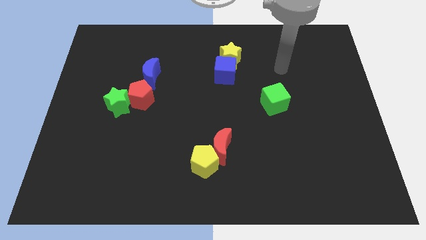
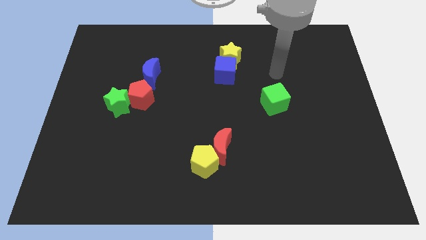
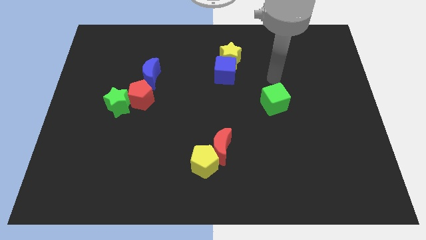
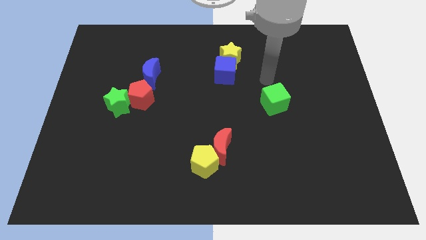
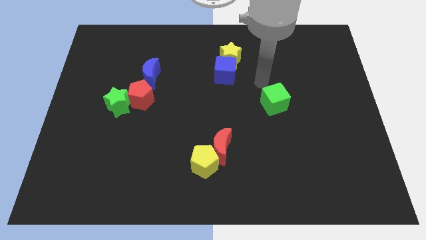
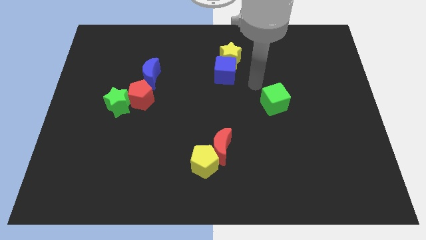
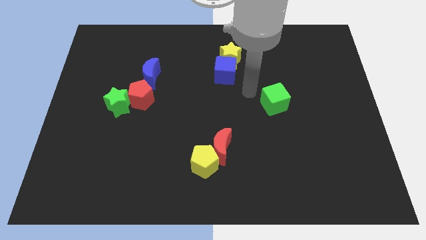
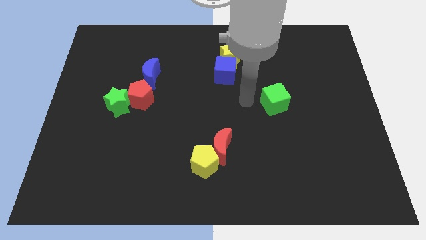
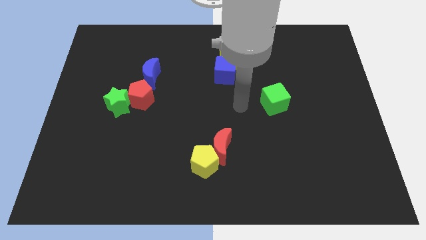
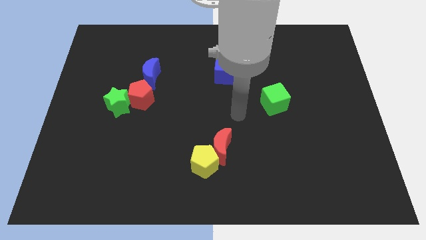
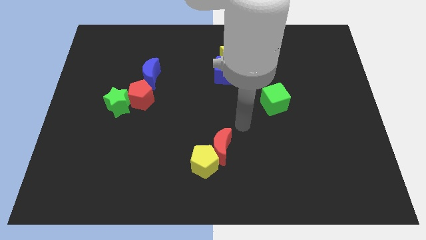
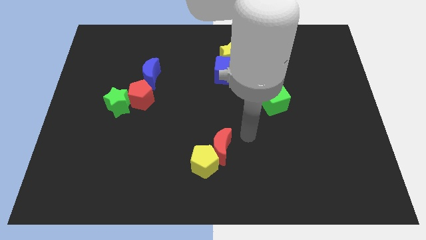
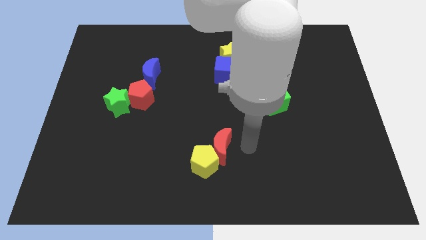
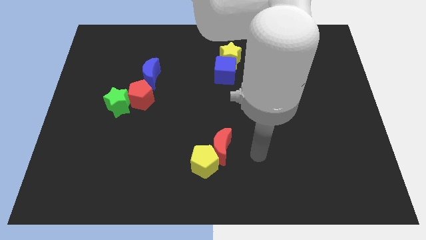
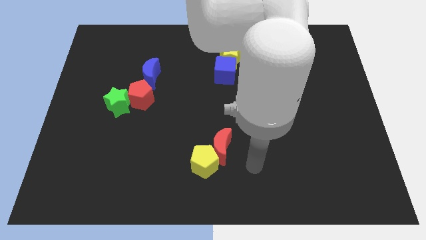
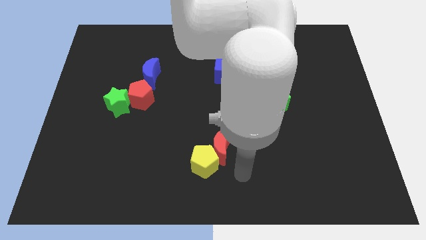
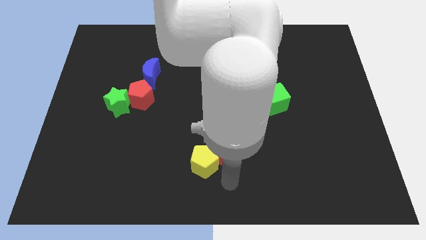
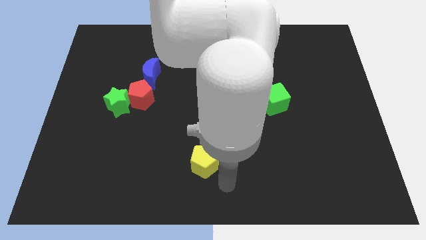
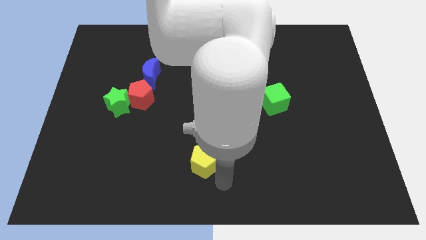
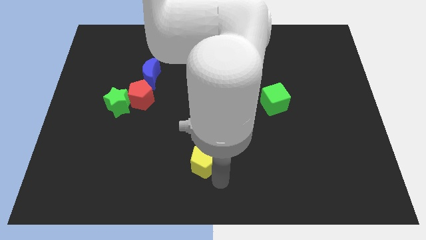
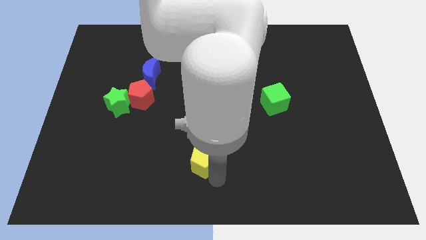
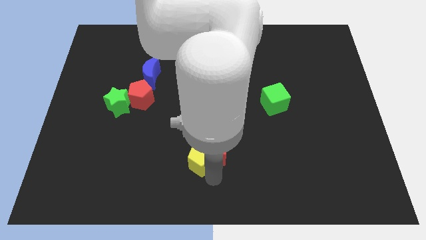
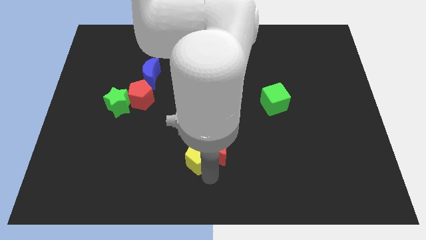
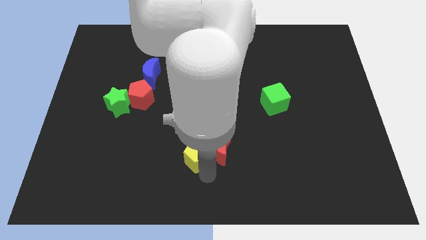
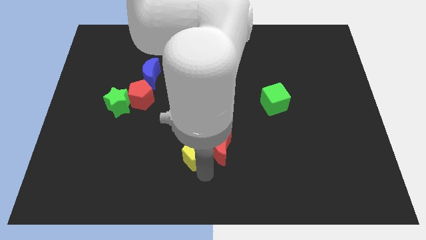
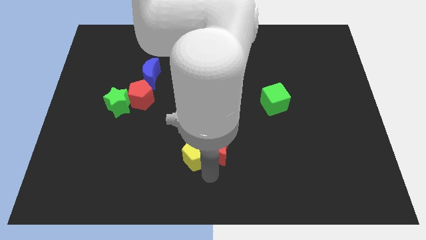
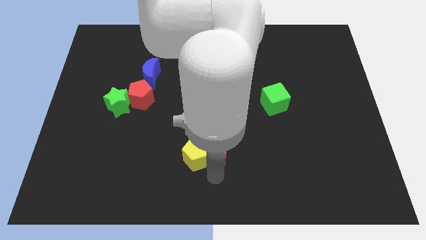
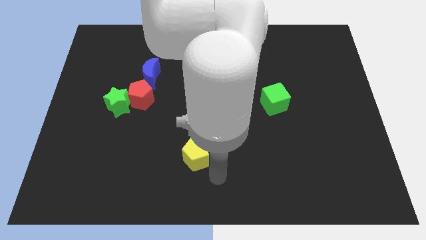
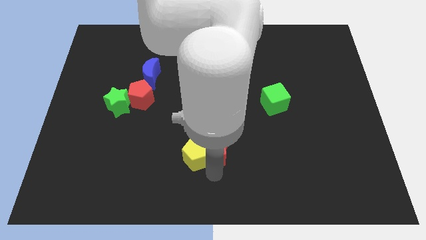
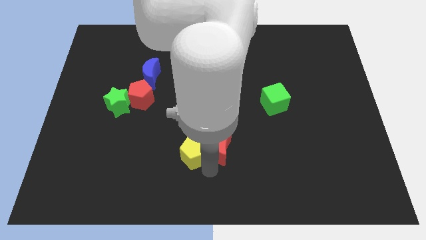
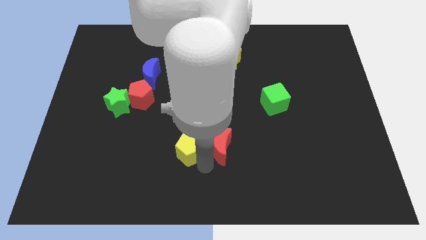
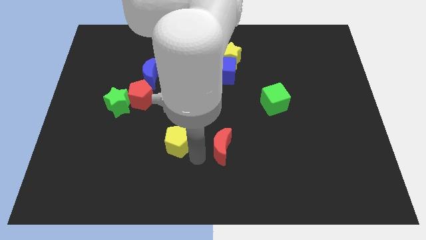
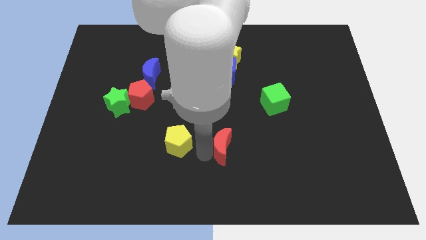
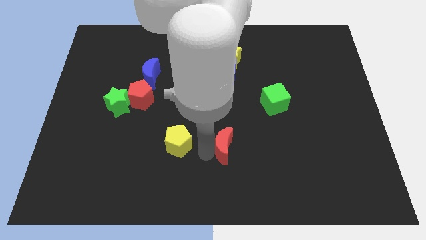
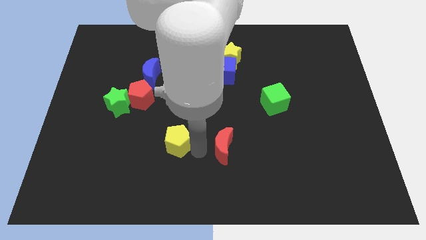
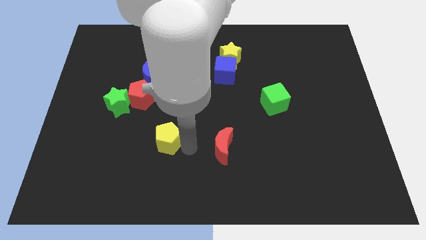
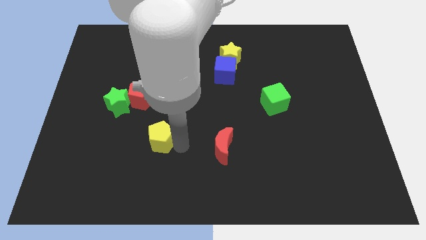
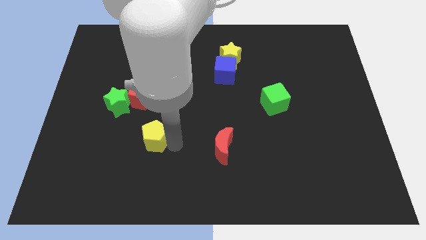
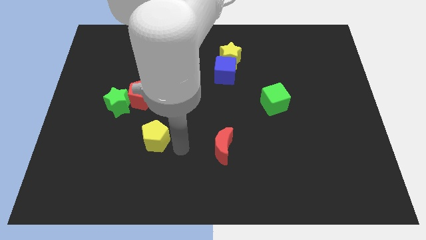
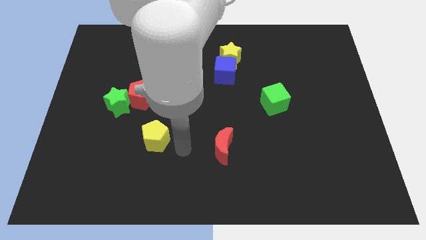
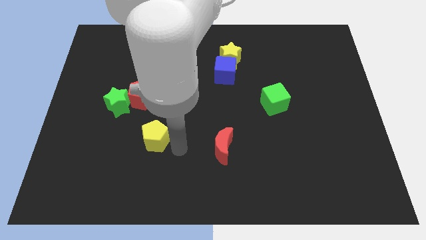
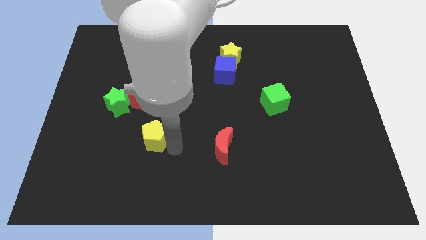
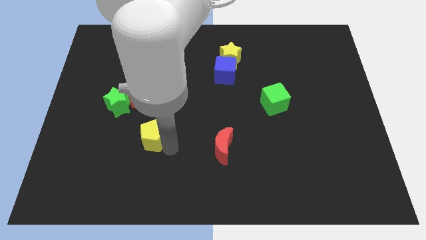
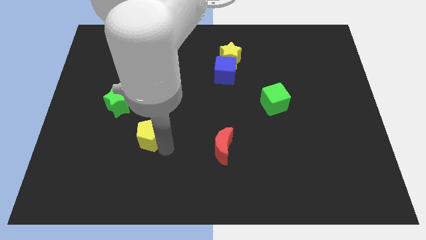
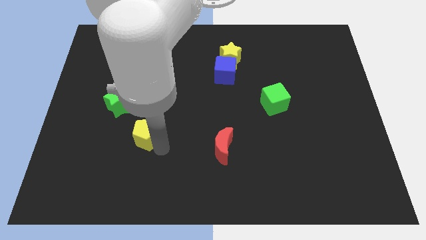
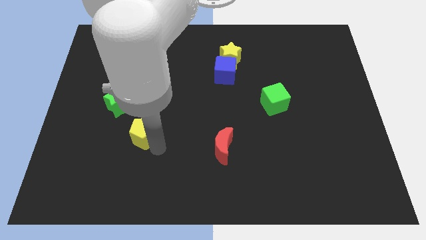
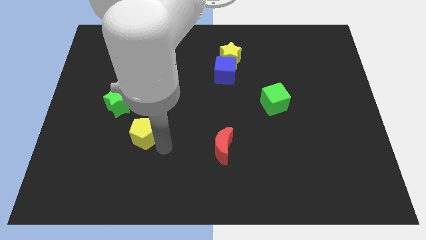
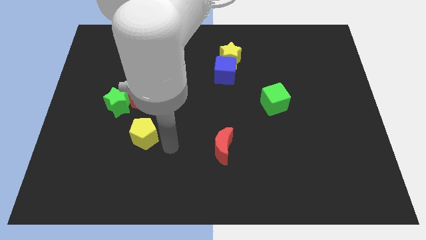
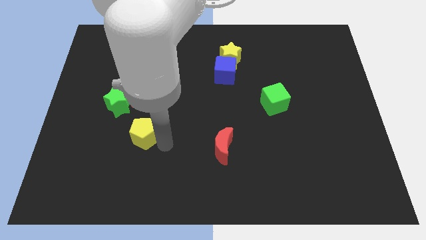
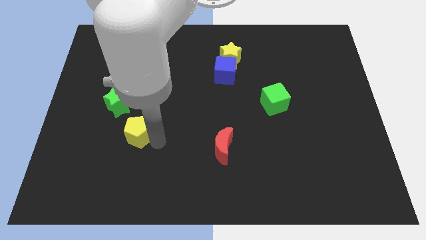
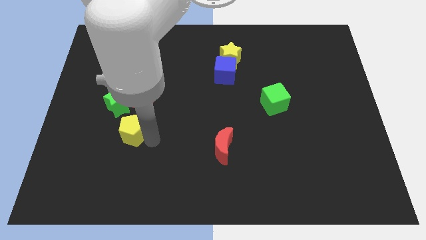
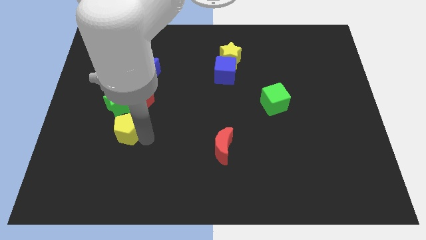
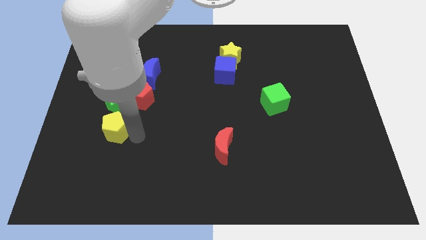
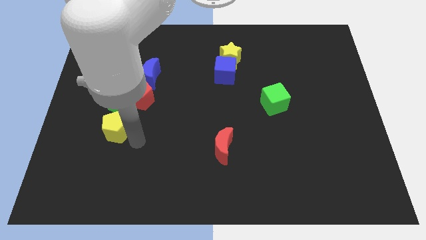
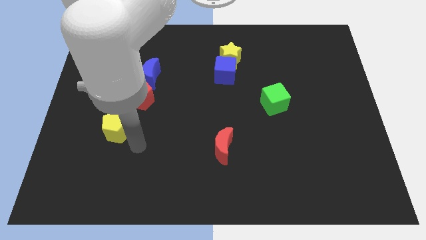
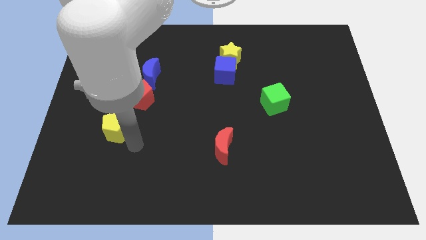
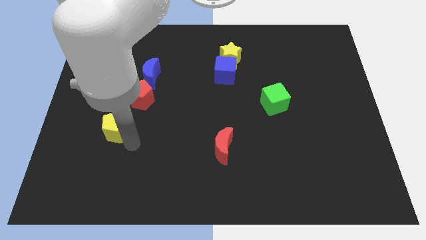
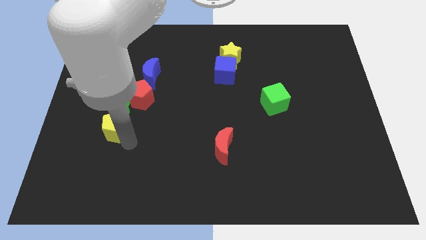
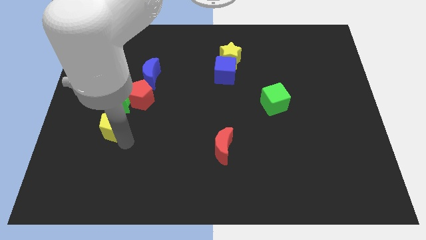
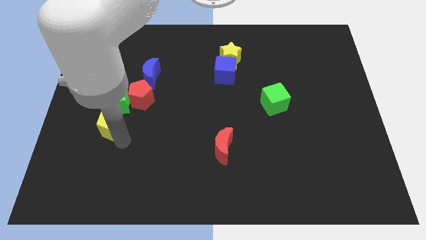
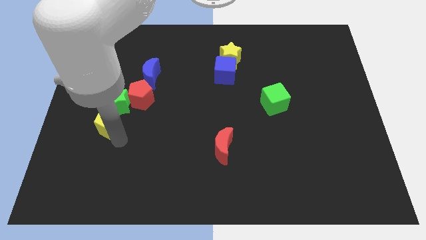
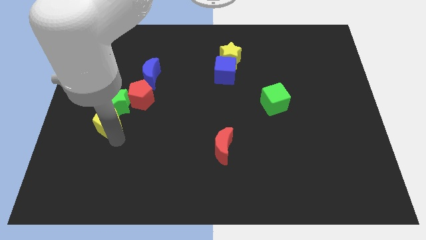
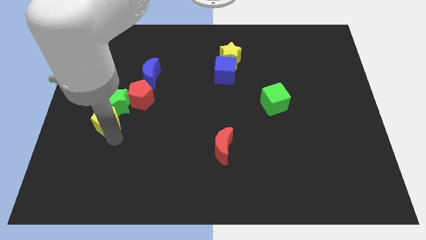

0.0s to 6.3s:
move the yellow pentagon diagonally up and left

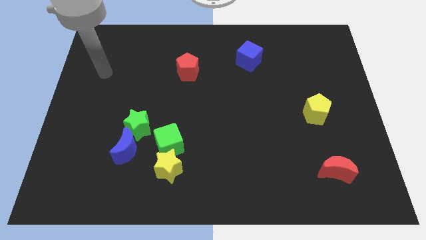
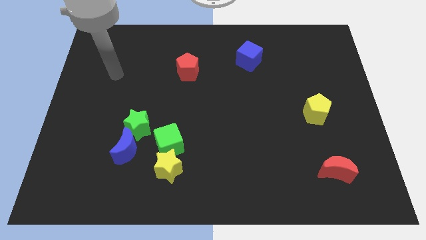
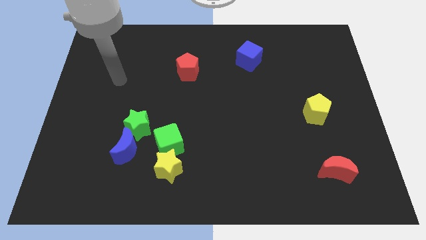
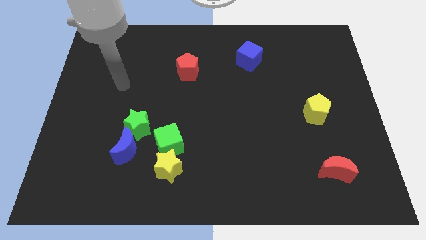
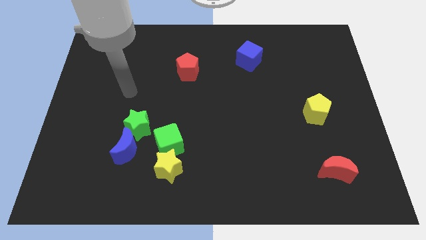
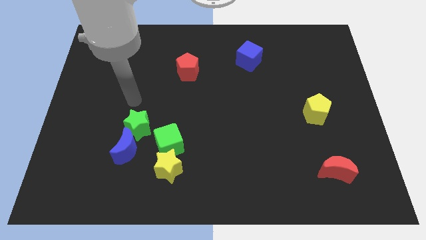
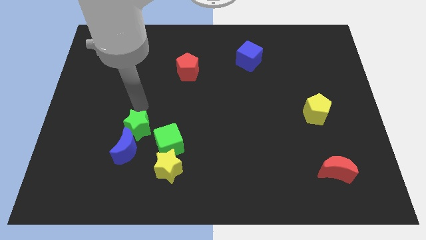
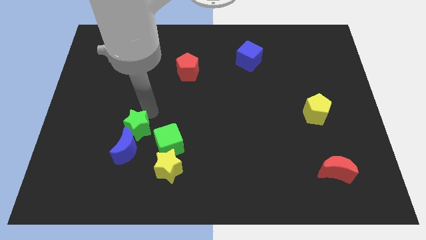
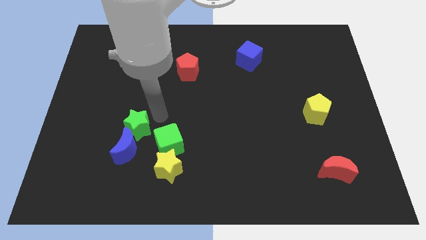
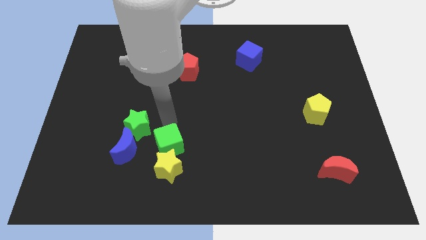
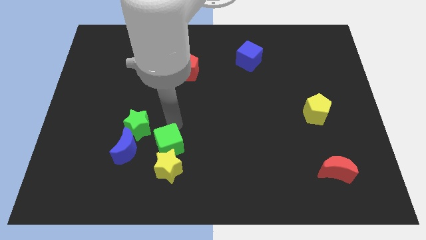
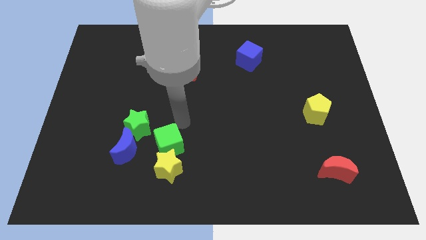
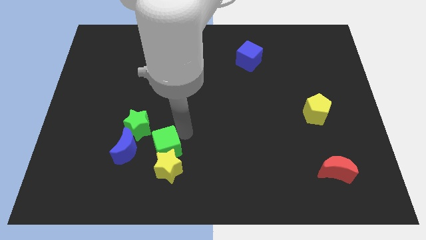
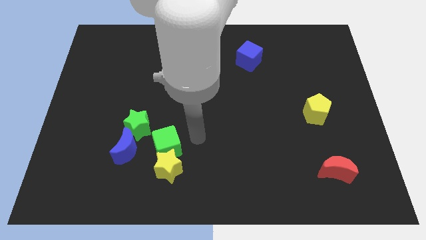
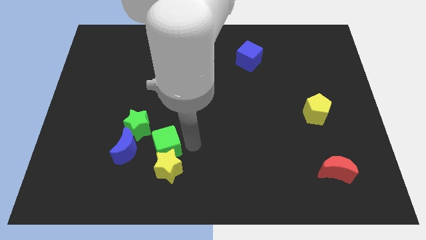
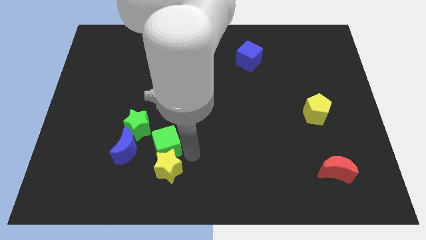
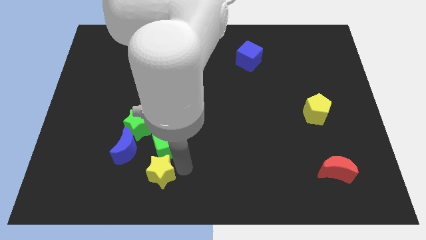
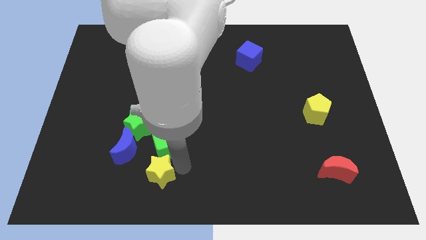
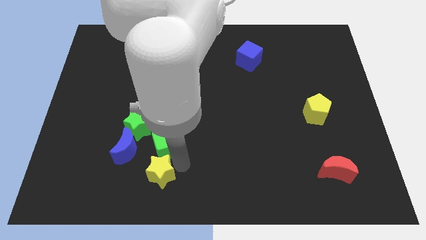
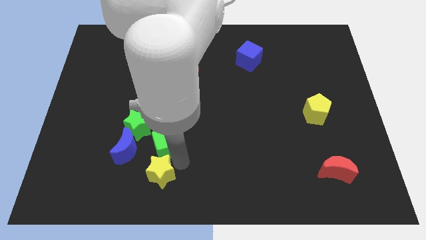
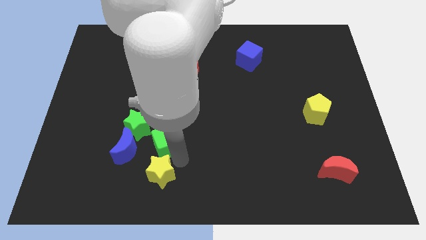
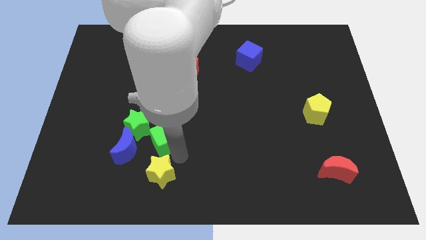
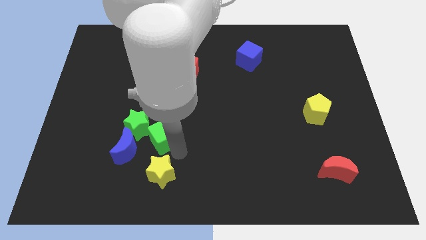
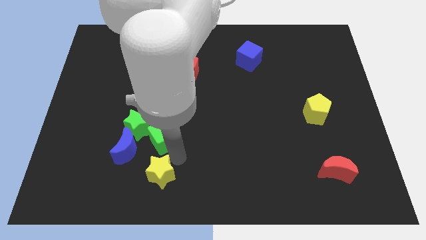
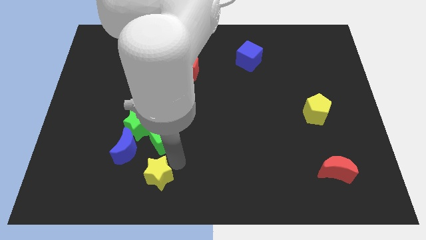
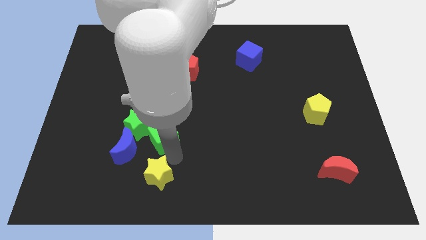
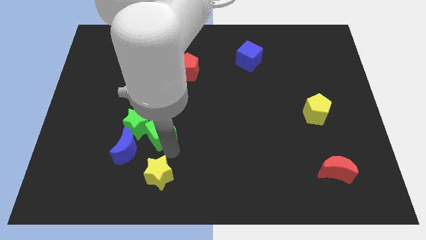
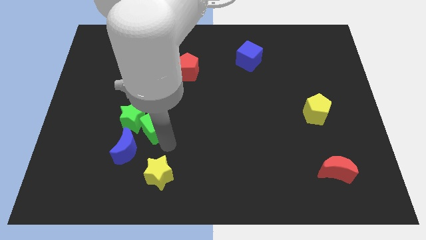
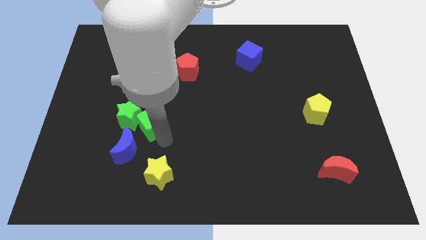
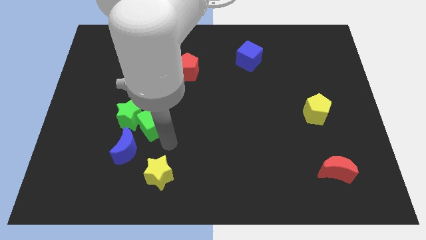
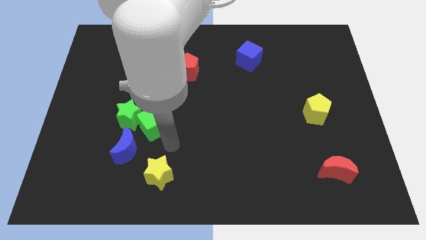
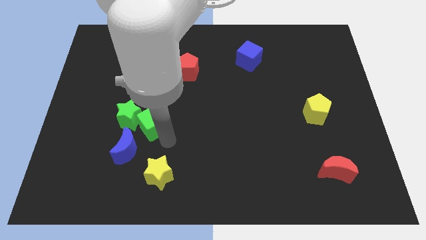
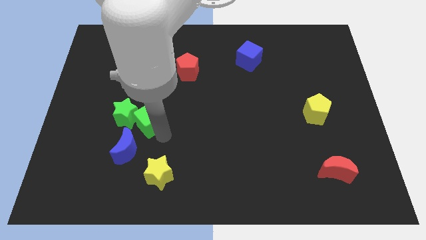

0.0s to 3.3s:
push the green cube upwards and left slightly
